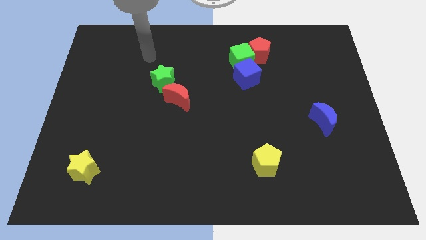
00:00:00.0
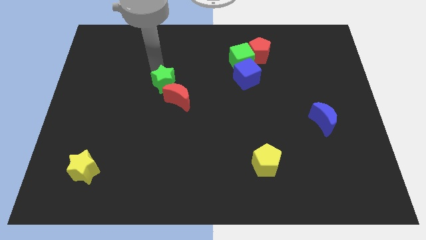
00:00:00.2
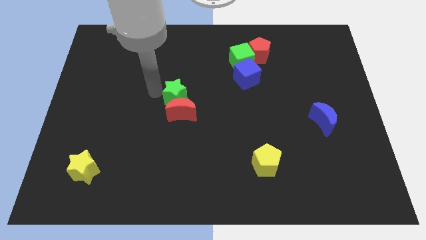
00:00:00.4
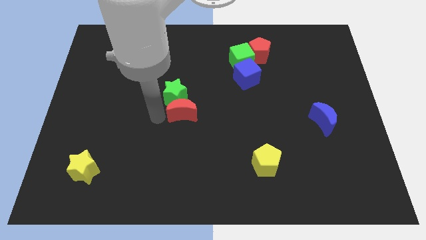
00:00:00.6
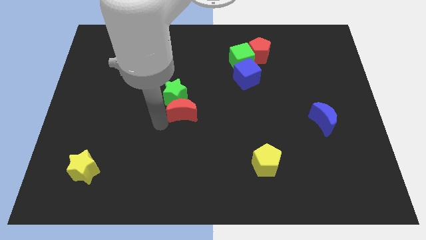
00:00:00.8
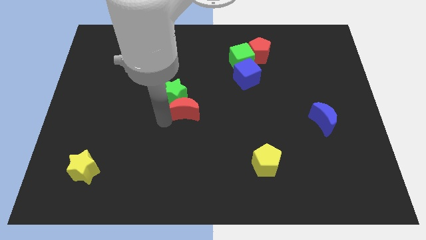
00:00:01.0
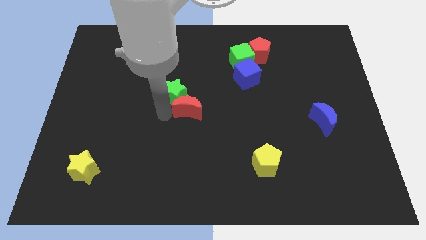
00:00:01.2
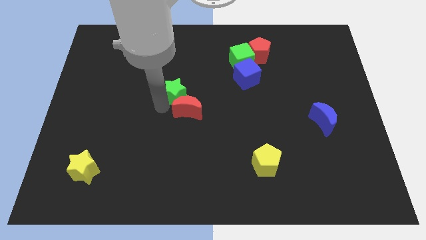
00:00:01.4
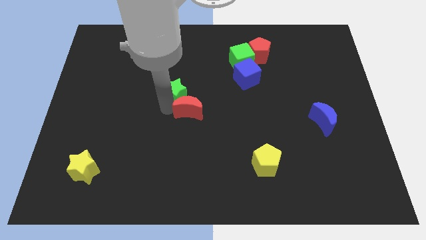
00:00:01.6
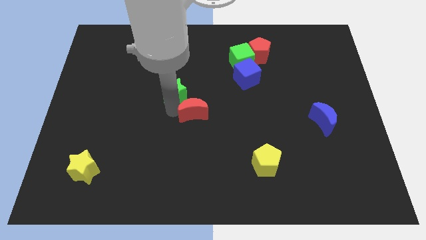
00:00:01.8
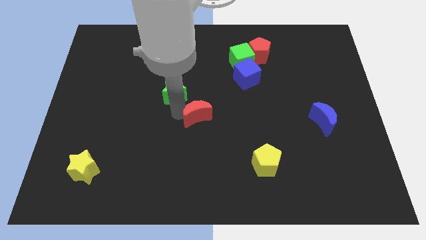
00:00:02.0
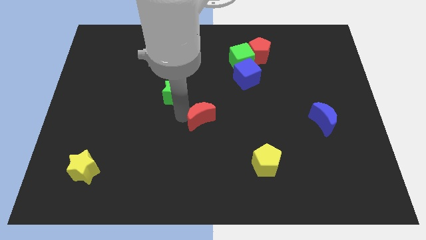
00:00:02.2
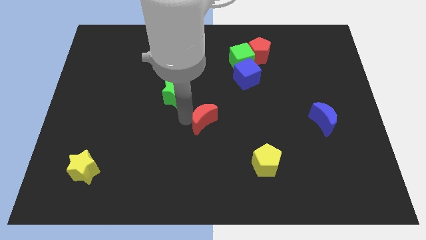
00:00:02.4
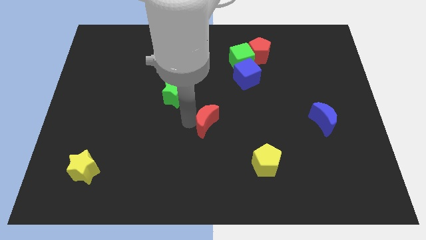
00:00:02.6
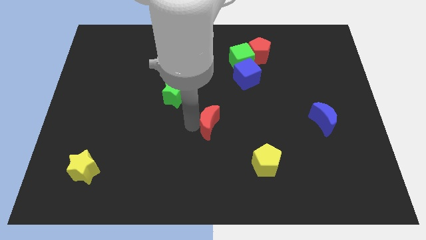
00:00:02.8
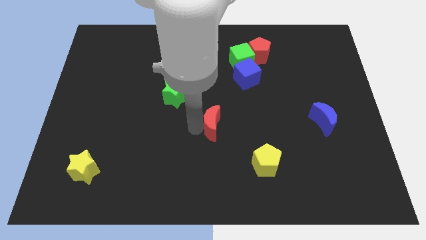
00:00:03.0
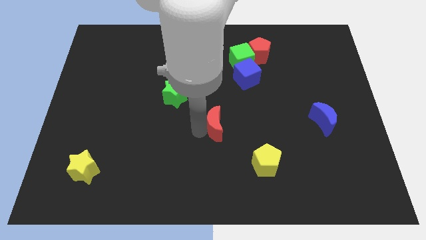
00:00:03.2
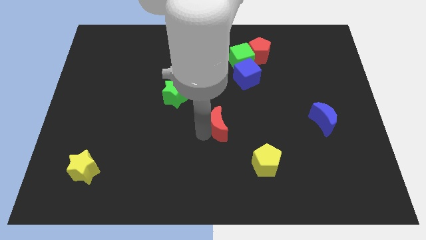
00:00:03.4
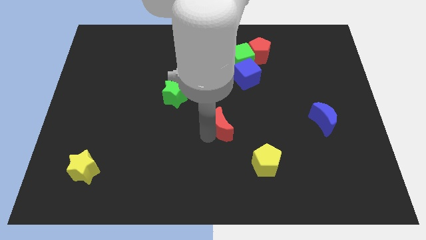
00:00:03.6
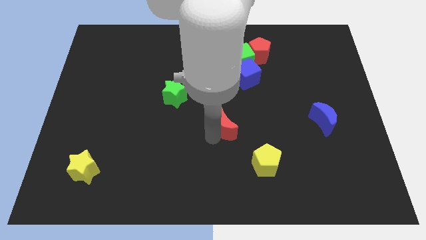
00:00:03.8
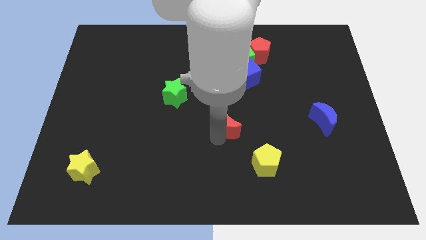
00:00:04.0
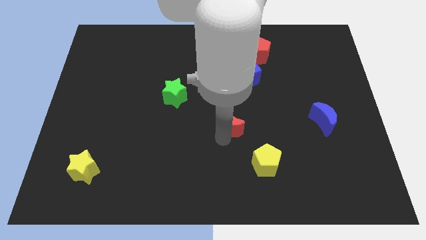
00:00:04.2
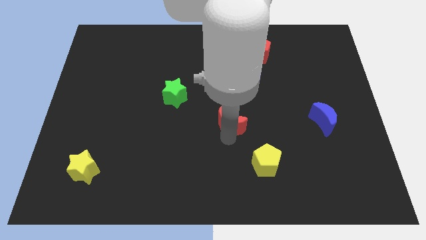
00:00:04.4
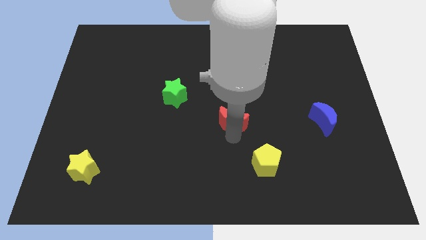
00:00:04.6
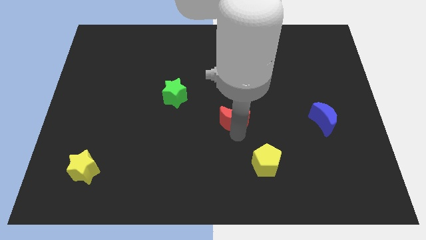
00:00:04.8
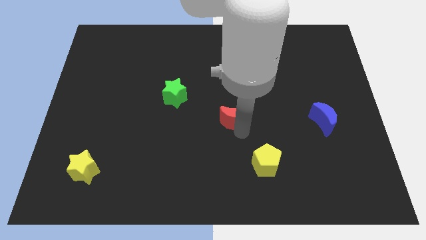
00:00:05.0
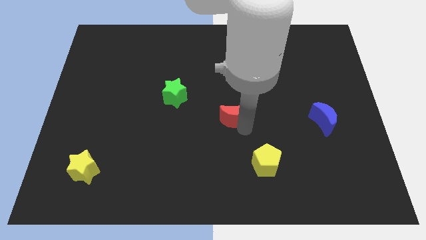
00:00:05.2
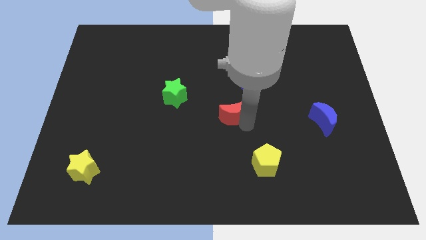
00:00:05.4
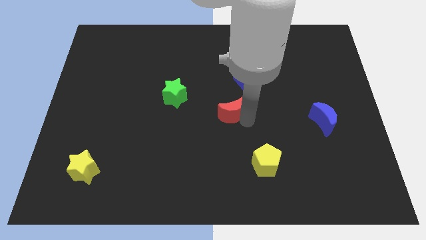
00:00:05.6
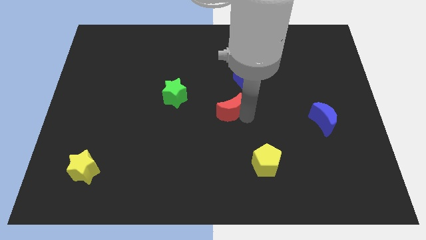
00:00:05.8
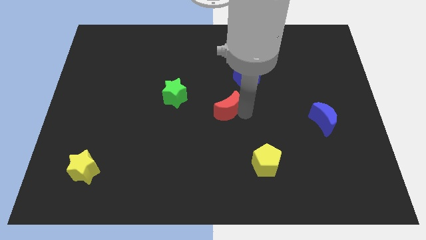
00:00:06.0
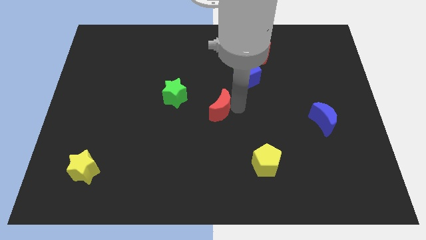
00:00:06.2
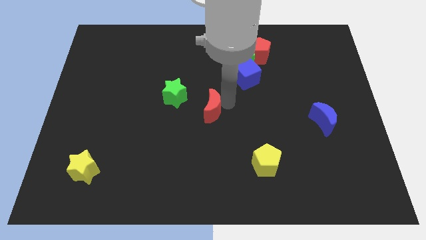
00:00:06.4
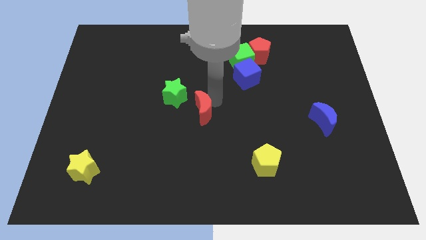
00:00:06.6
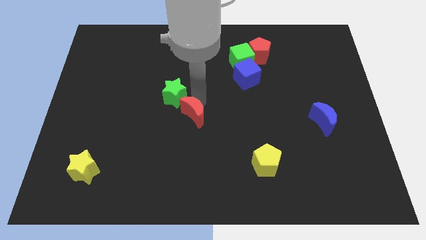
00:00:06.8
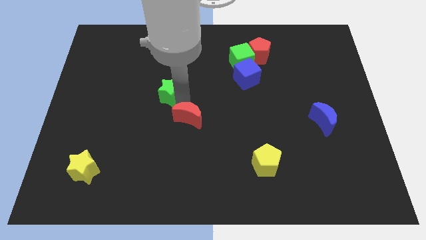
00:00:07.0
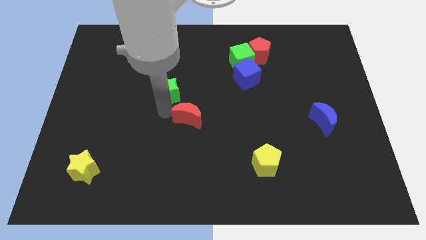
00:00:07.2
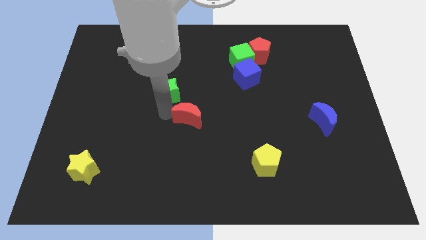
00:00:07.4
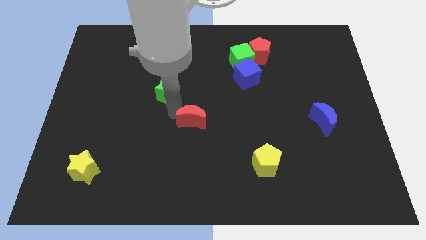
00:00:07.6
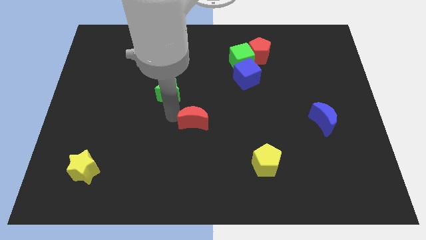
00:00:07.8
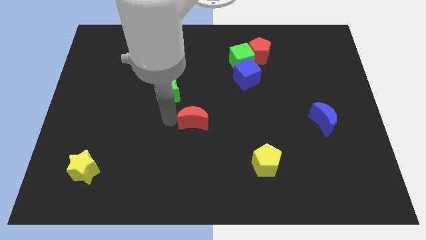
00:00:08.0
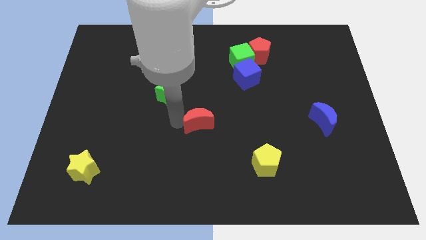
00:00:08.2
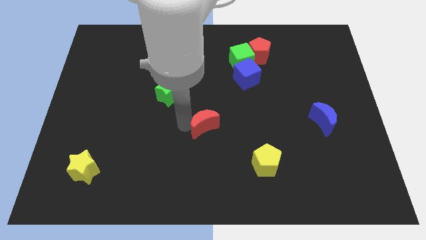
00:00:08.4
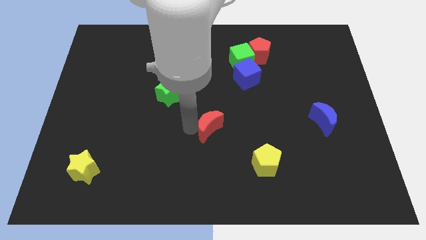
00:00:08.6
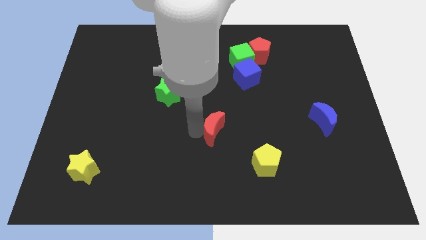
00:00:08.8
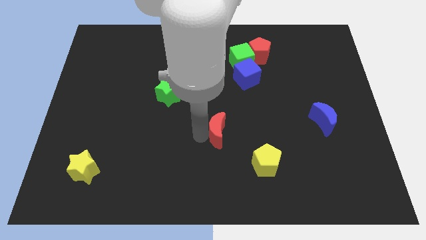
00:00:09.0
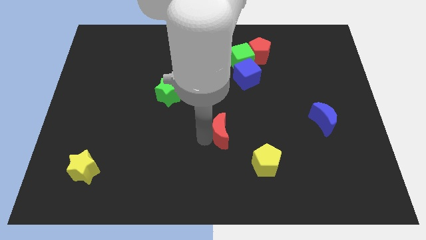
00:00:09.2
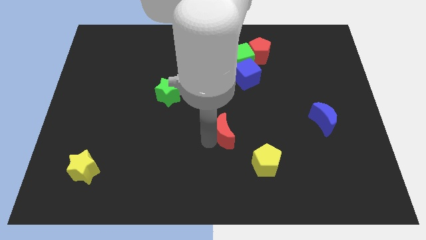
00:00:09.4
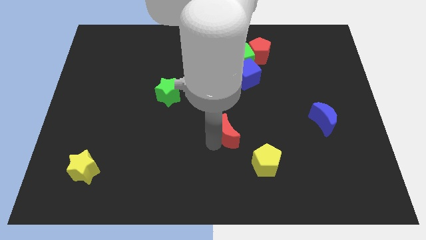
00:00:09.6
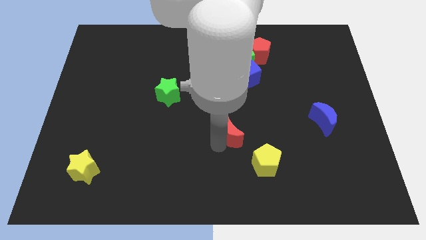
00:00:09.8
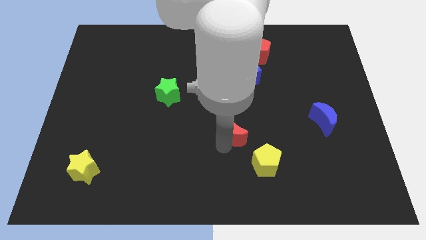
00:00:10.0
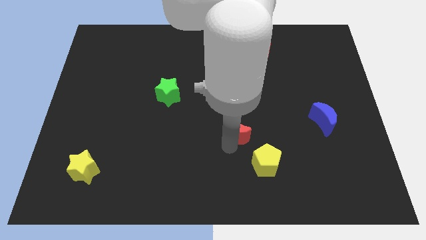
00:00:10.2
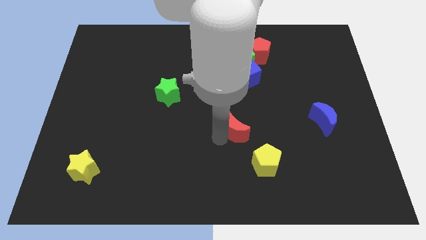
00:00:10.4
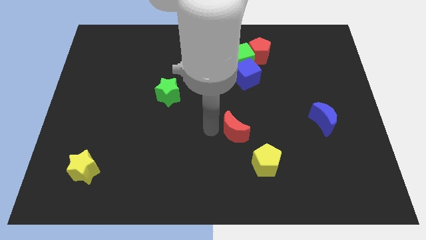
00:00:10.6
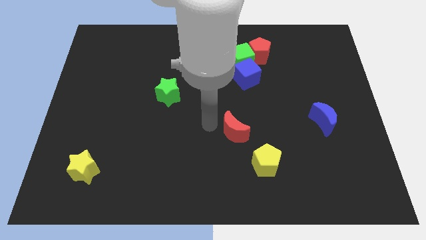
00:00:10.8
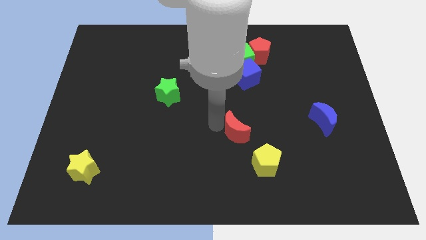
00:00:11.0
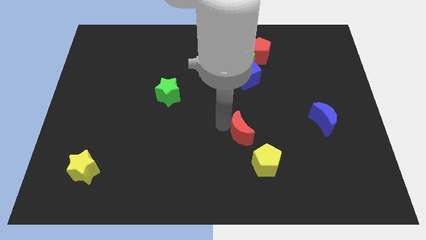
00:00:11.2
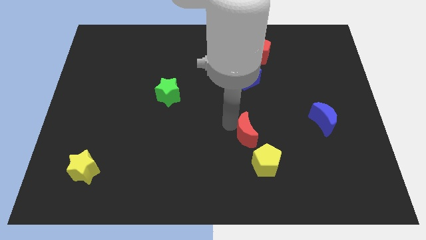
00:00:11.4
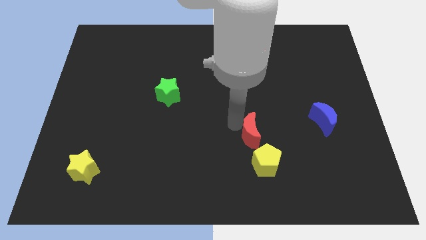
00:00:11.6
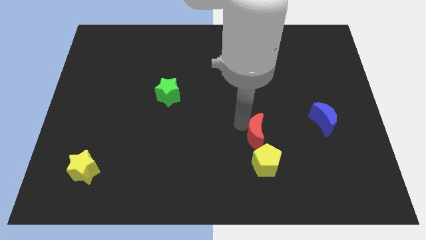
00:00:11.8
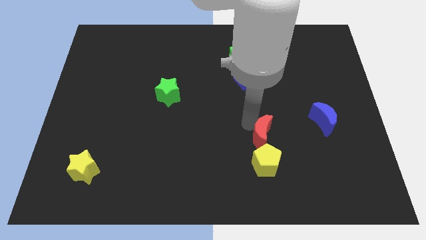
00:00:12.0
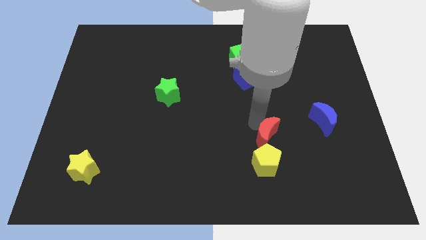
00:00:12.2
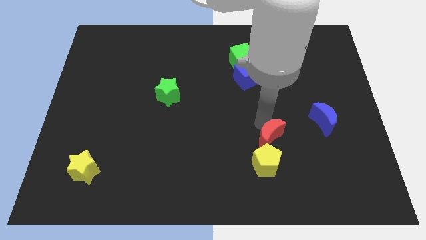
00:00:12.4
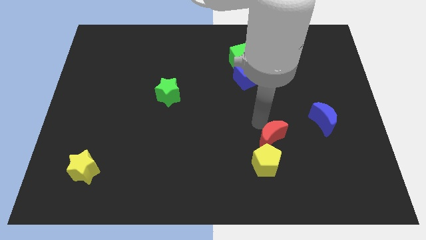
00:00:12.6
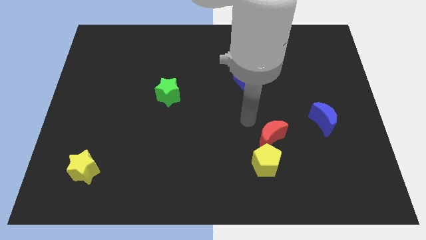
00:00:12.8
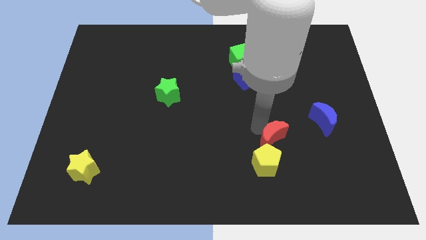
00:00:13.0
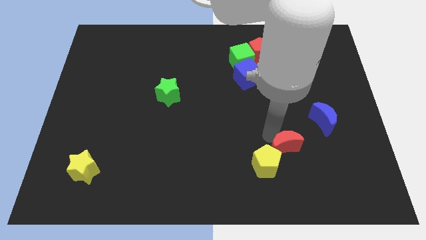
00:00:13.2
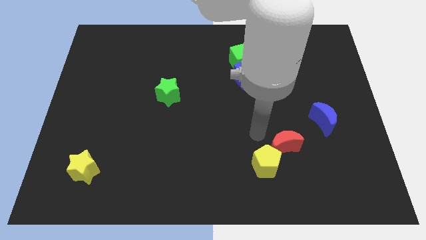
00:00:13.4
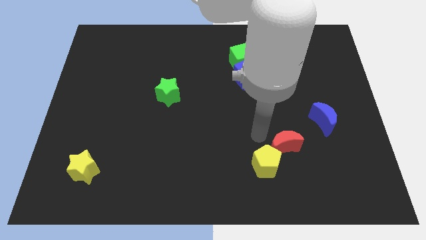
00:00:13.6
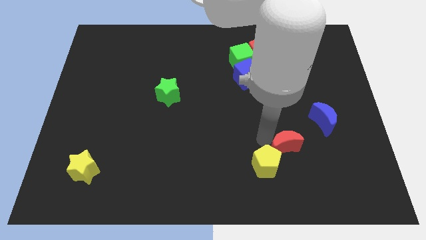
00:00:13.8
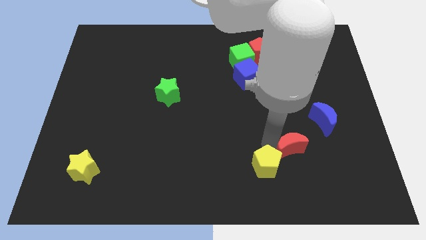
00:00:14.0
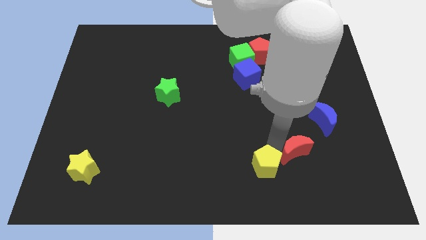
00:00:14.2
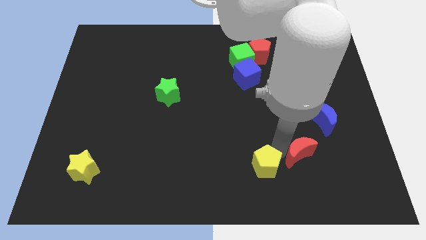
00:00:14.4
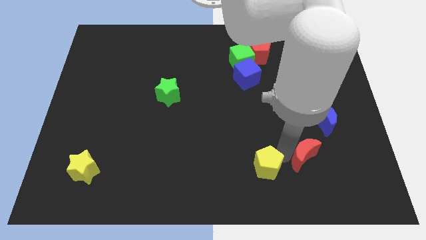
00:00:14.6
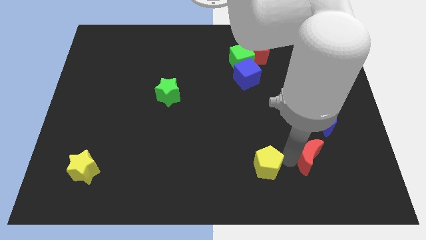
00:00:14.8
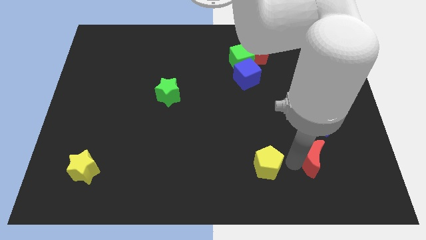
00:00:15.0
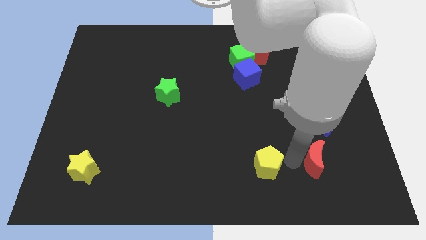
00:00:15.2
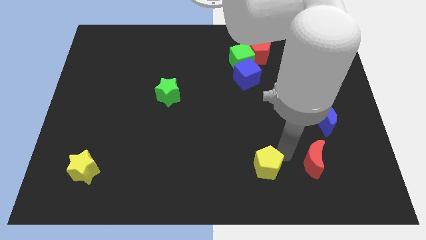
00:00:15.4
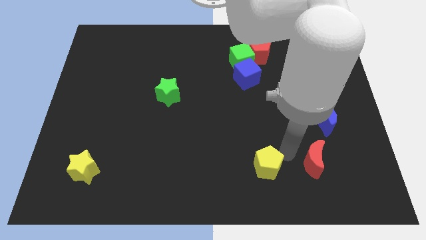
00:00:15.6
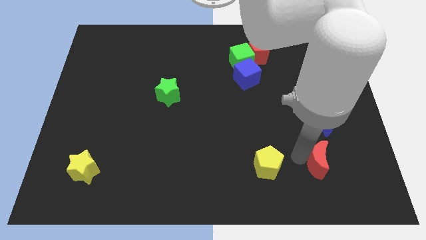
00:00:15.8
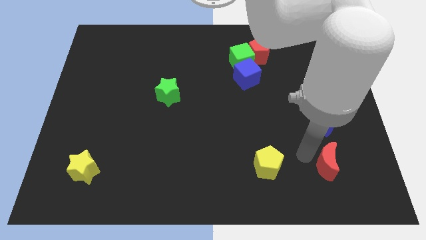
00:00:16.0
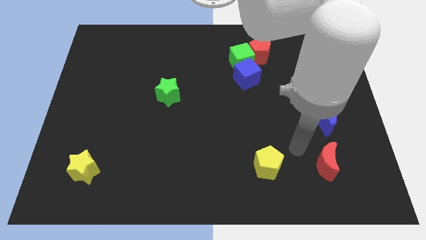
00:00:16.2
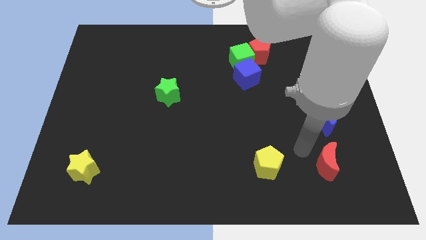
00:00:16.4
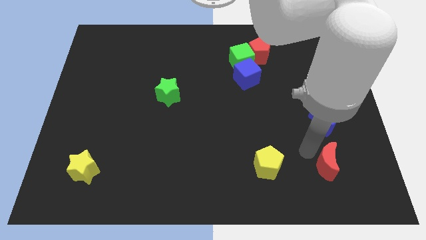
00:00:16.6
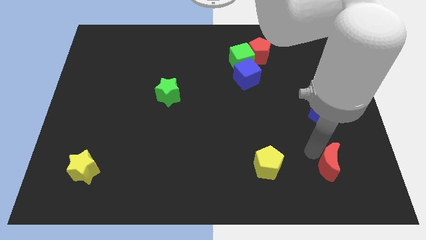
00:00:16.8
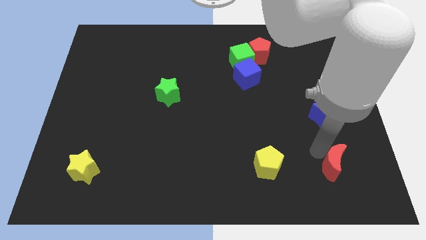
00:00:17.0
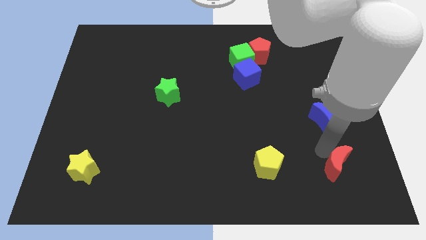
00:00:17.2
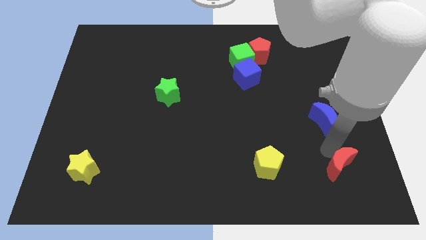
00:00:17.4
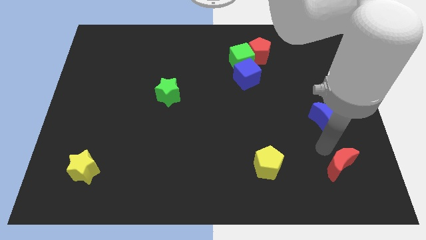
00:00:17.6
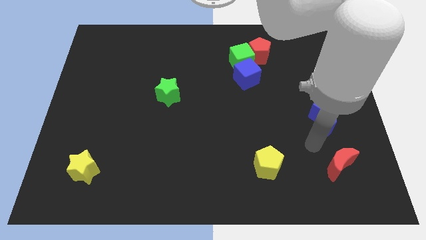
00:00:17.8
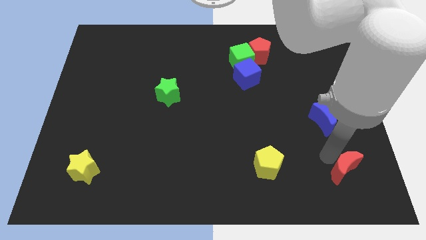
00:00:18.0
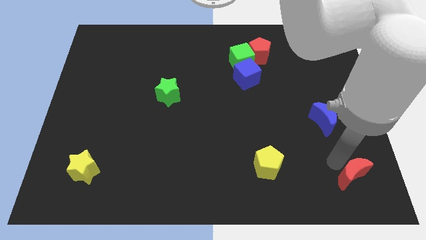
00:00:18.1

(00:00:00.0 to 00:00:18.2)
move the red moon to the lower right corner
